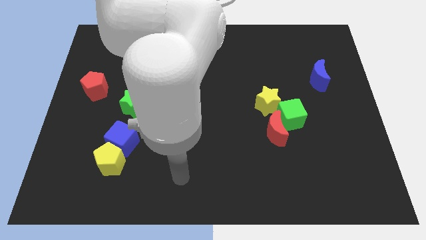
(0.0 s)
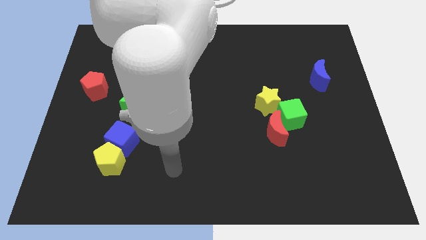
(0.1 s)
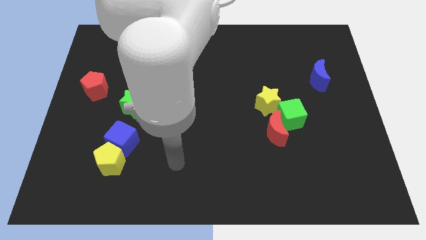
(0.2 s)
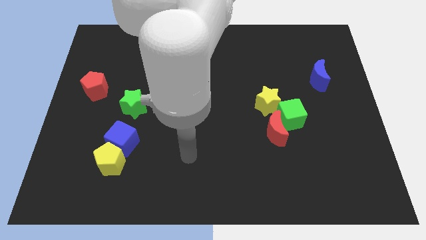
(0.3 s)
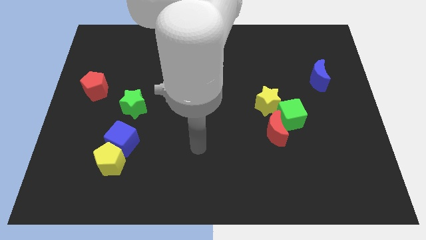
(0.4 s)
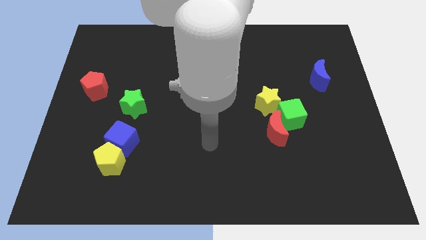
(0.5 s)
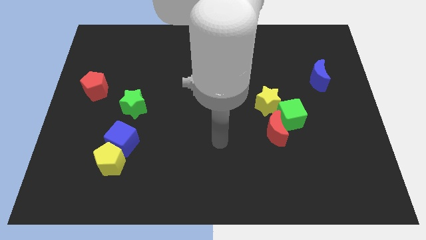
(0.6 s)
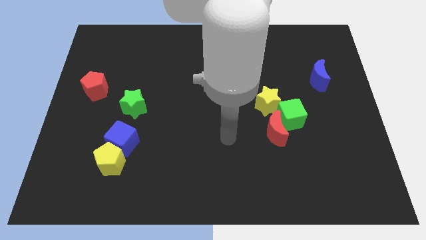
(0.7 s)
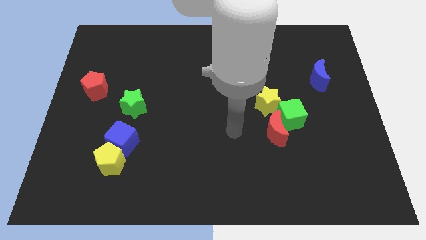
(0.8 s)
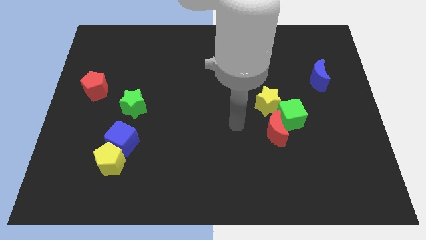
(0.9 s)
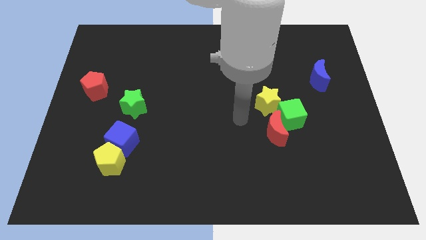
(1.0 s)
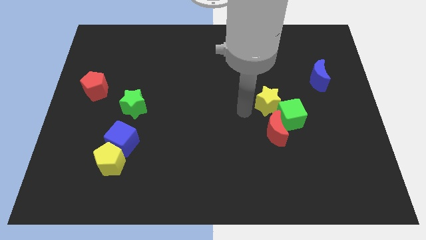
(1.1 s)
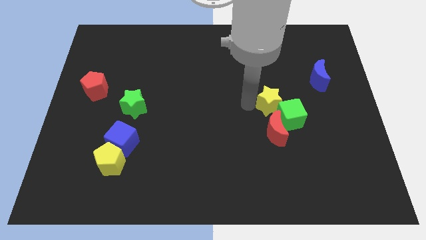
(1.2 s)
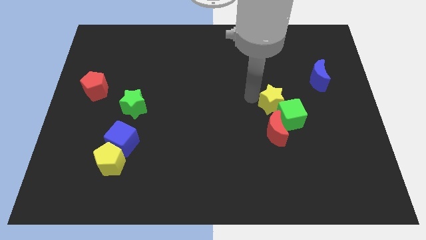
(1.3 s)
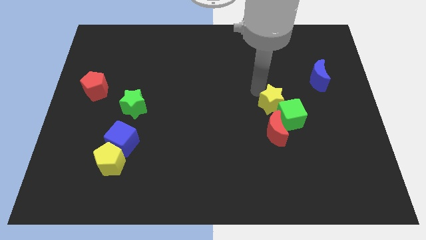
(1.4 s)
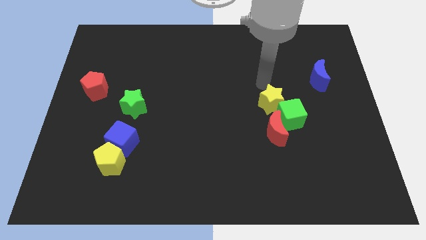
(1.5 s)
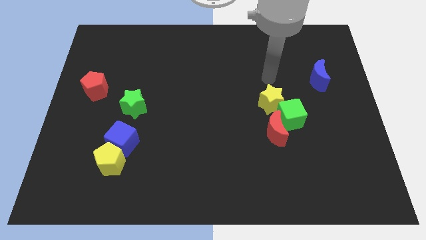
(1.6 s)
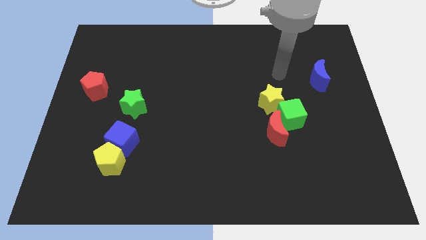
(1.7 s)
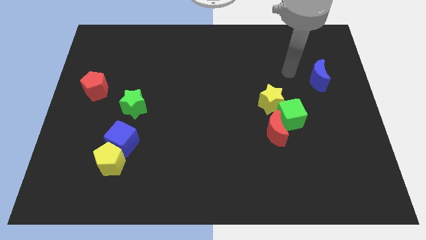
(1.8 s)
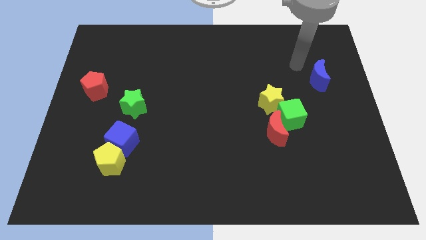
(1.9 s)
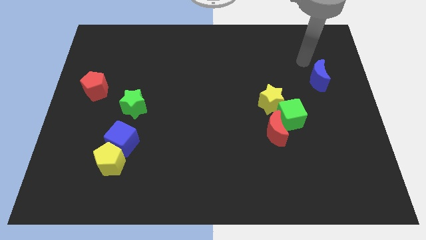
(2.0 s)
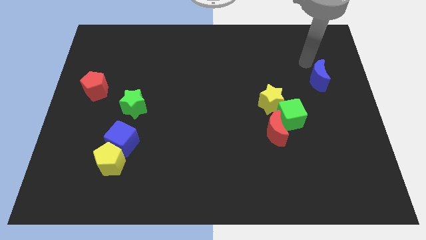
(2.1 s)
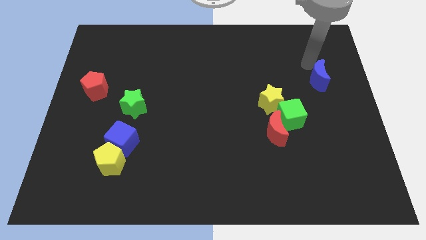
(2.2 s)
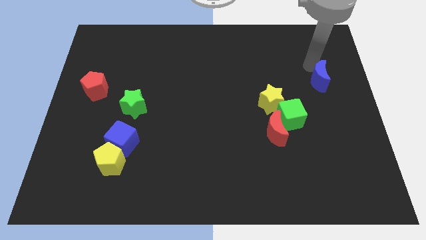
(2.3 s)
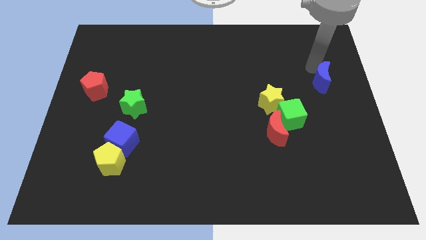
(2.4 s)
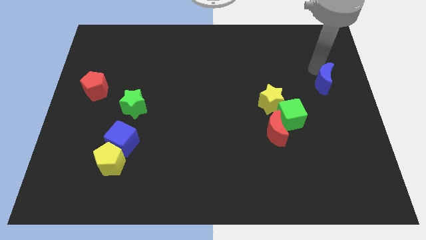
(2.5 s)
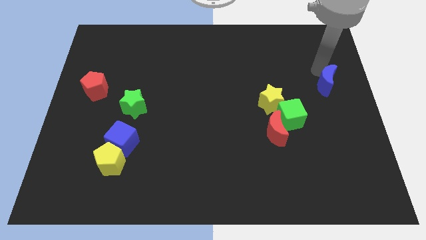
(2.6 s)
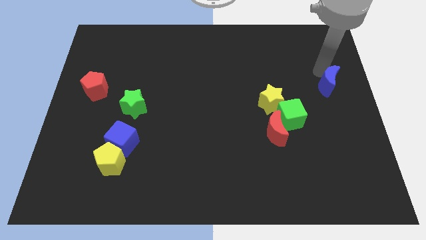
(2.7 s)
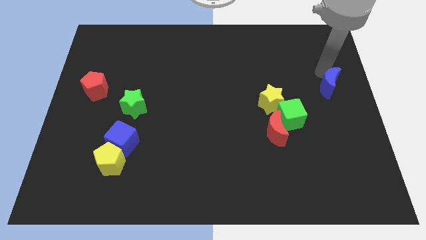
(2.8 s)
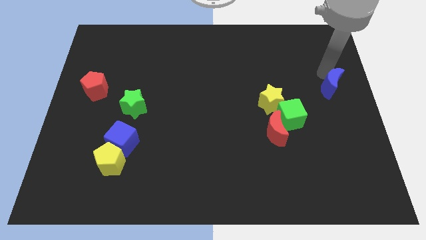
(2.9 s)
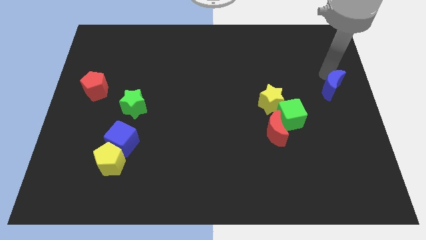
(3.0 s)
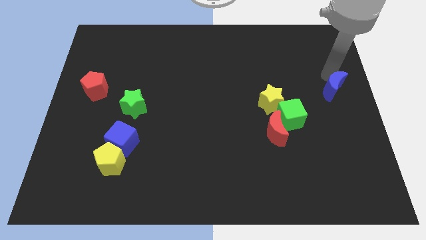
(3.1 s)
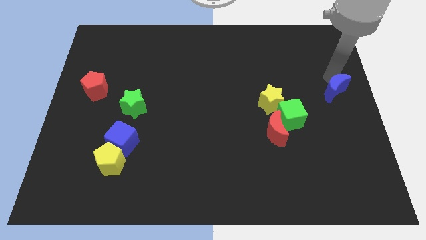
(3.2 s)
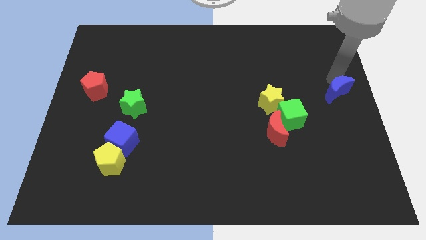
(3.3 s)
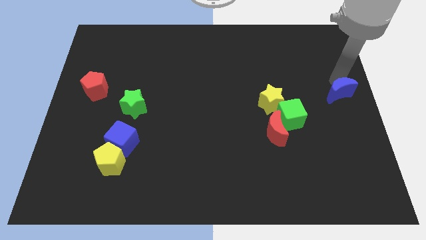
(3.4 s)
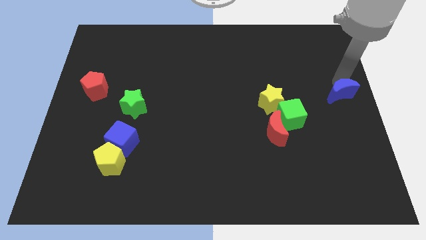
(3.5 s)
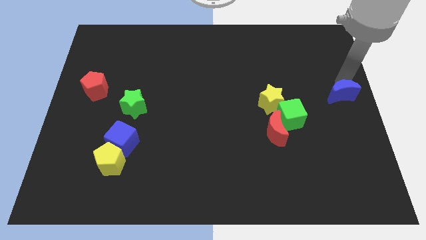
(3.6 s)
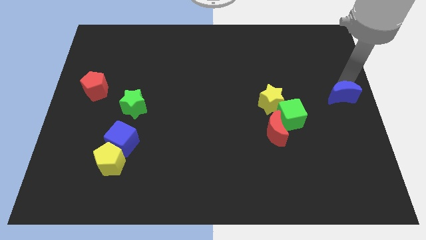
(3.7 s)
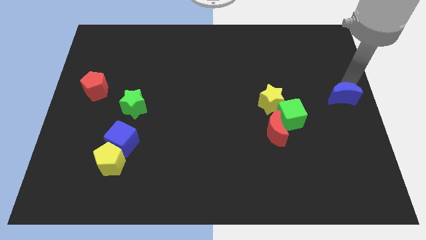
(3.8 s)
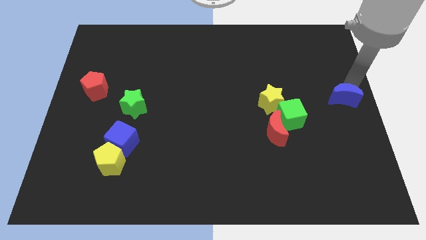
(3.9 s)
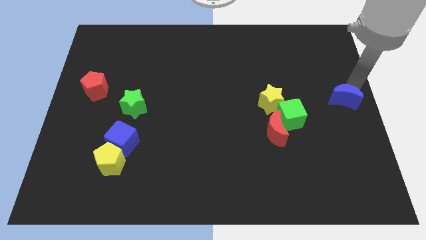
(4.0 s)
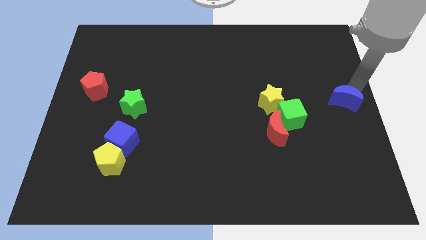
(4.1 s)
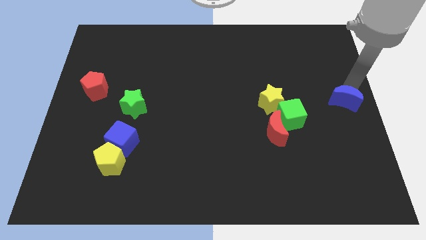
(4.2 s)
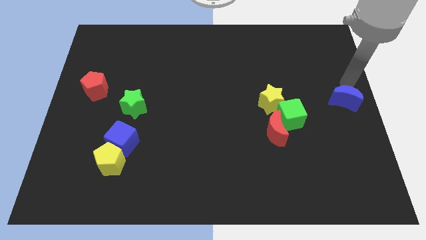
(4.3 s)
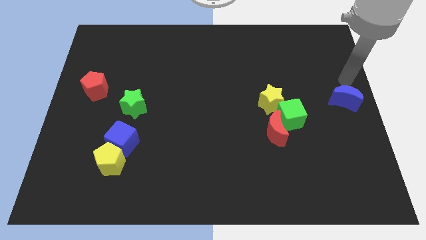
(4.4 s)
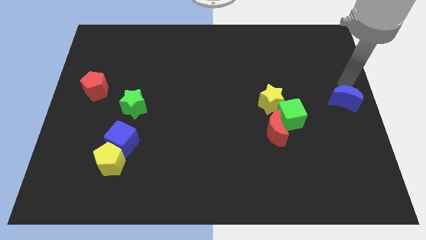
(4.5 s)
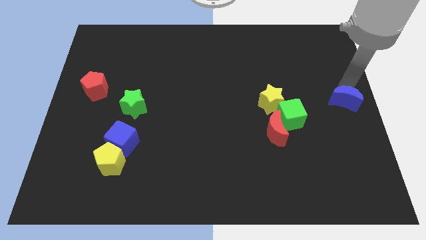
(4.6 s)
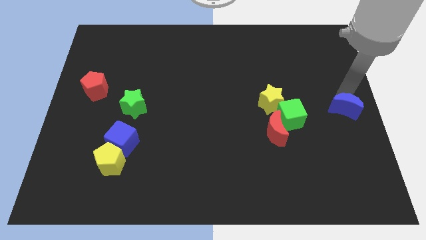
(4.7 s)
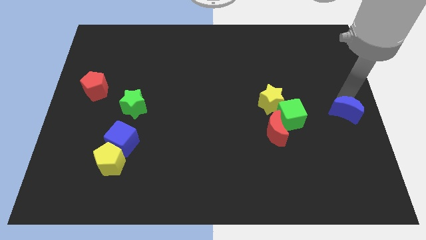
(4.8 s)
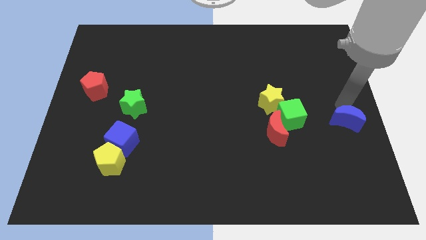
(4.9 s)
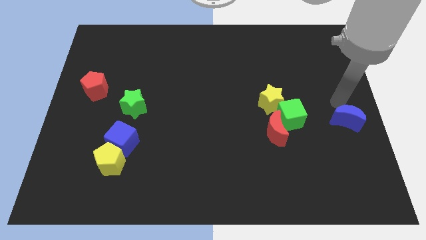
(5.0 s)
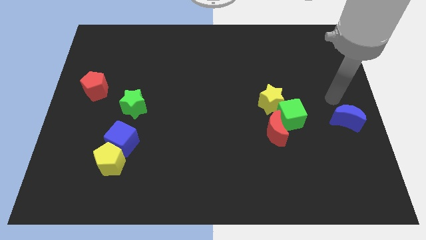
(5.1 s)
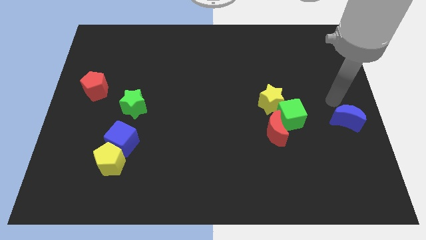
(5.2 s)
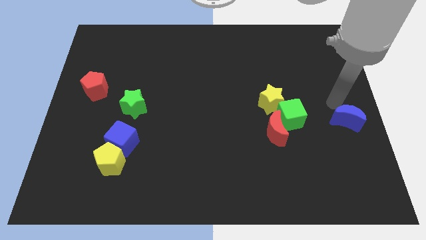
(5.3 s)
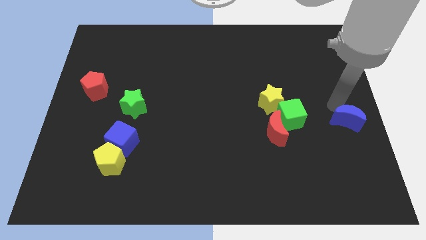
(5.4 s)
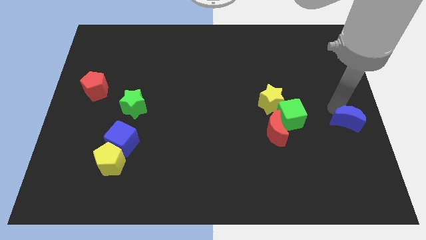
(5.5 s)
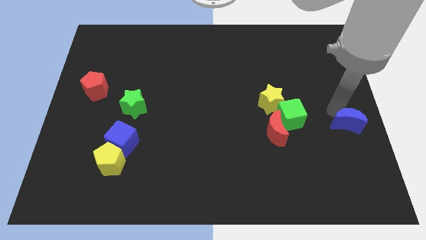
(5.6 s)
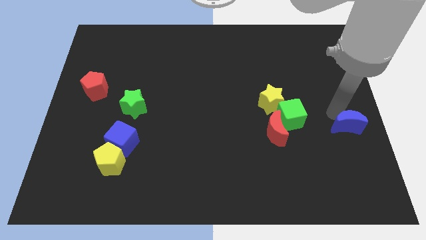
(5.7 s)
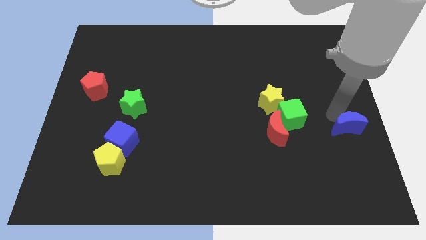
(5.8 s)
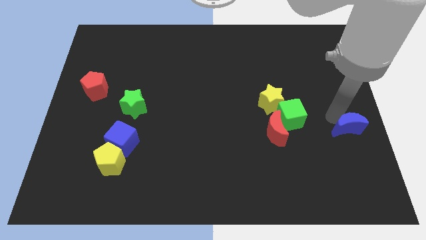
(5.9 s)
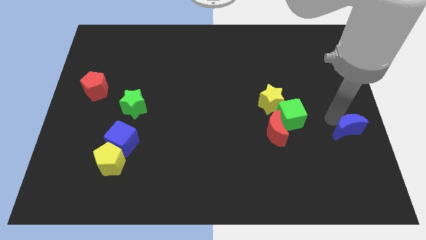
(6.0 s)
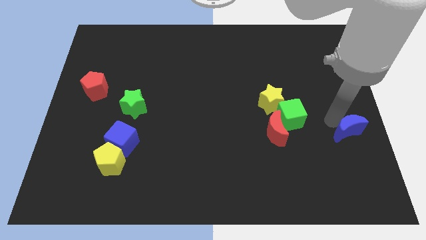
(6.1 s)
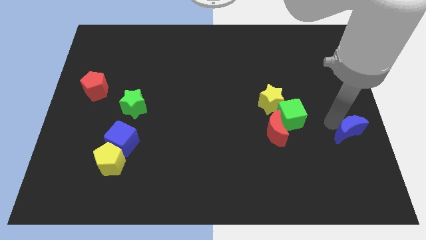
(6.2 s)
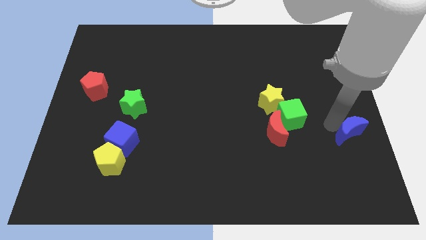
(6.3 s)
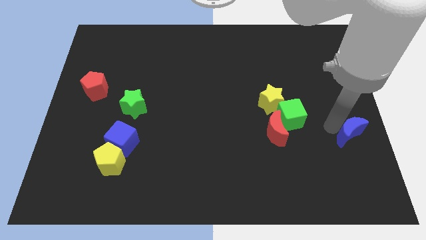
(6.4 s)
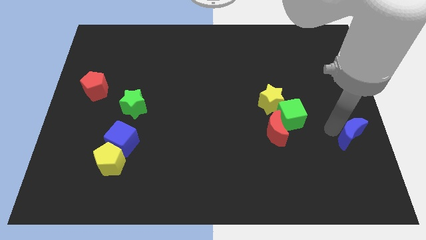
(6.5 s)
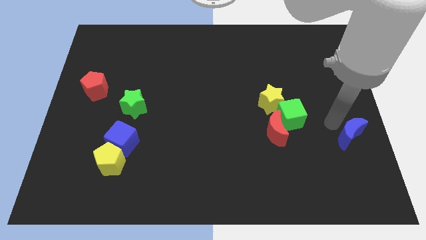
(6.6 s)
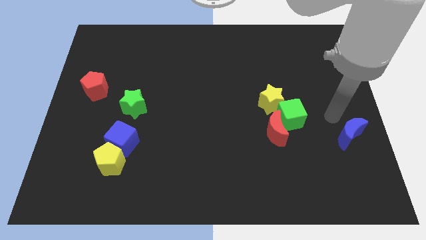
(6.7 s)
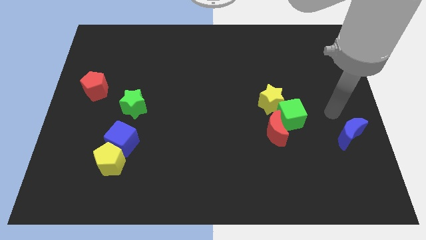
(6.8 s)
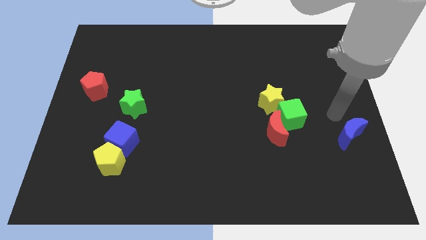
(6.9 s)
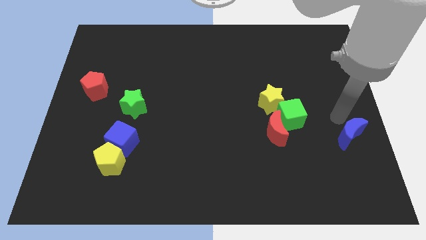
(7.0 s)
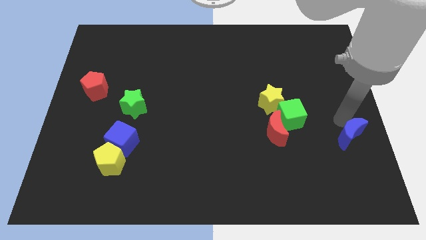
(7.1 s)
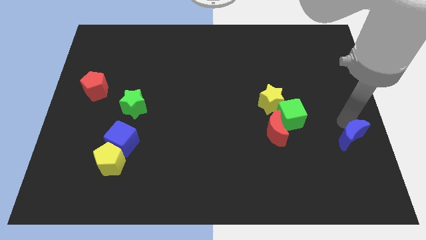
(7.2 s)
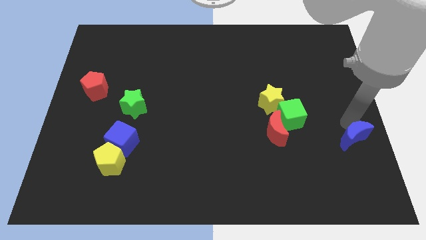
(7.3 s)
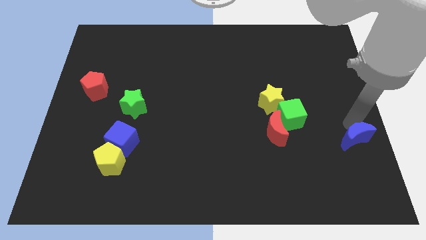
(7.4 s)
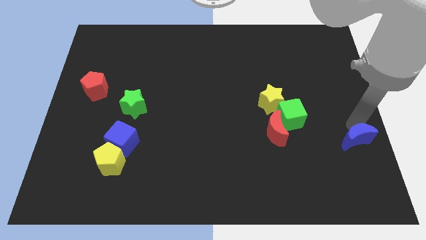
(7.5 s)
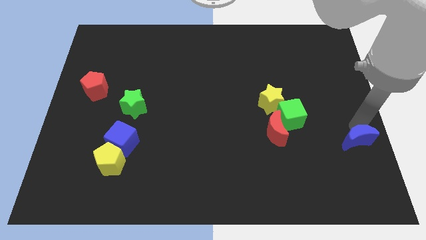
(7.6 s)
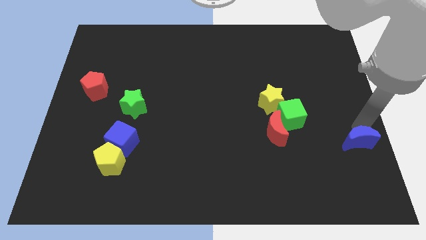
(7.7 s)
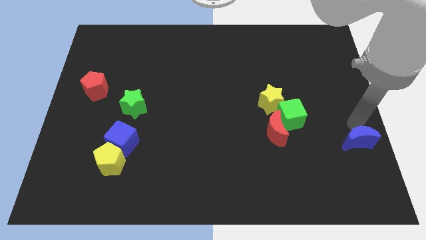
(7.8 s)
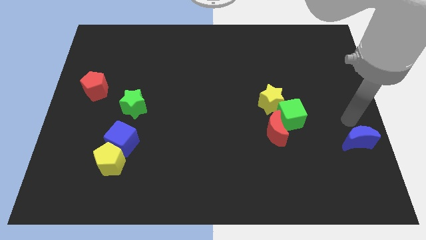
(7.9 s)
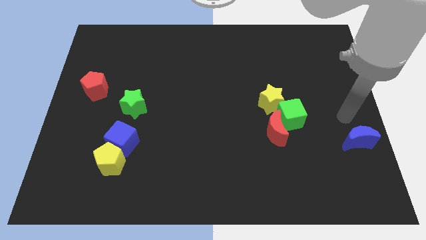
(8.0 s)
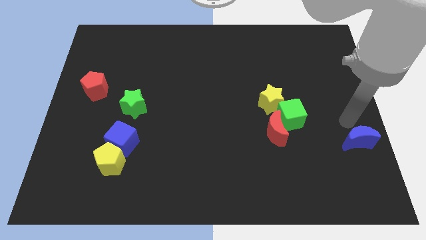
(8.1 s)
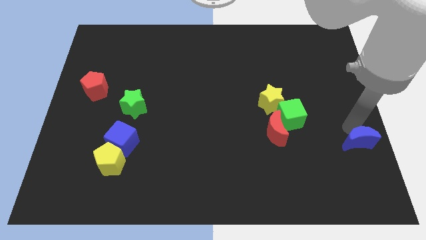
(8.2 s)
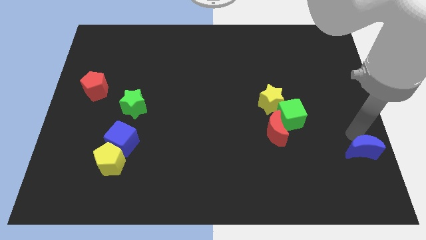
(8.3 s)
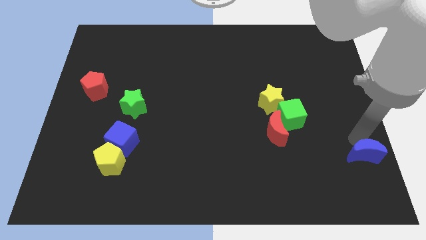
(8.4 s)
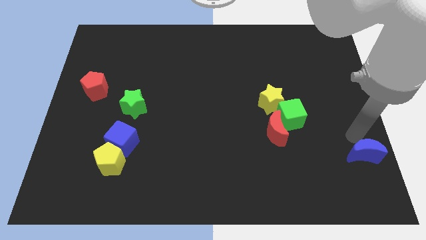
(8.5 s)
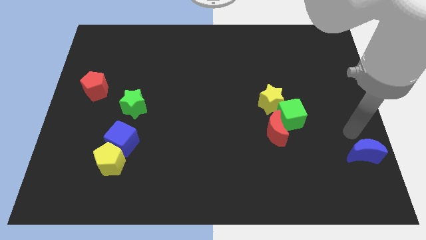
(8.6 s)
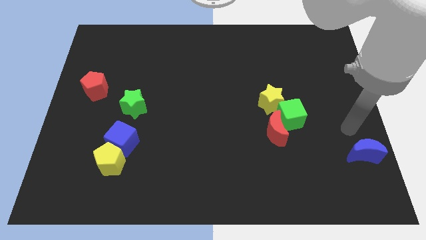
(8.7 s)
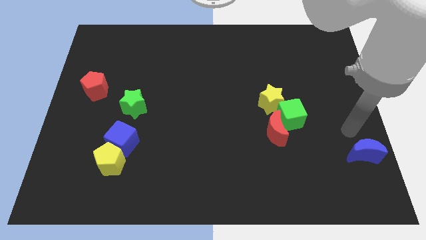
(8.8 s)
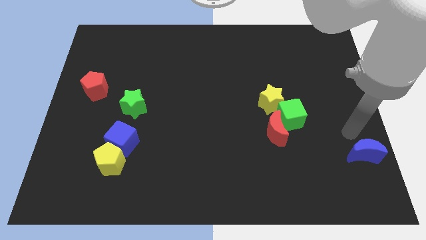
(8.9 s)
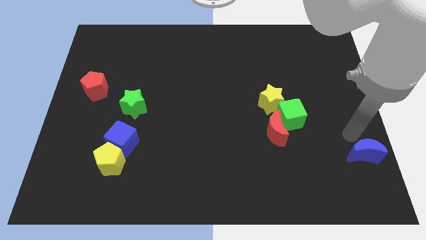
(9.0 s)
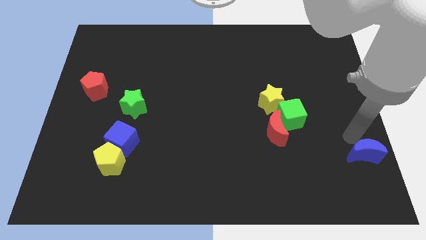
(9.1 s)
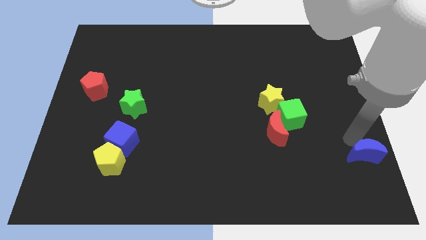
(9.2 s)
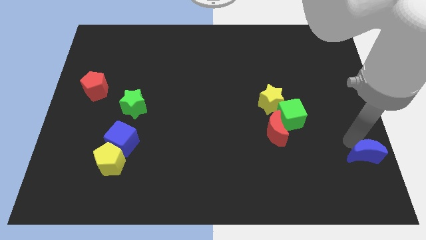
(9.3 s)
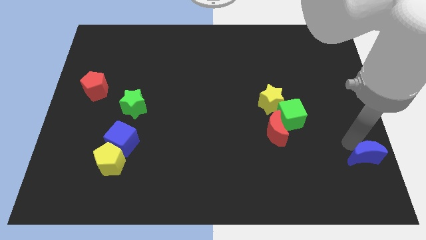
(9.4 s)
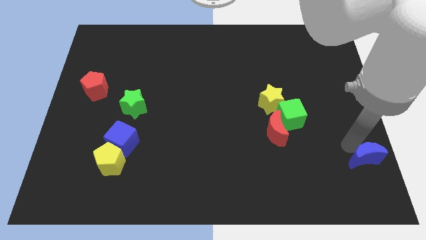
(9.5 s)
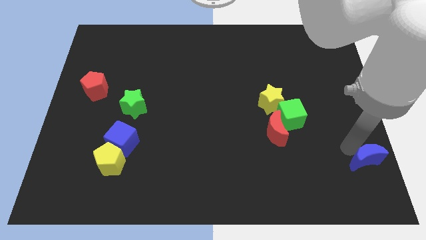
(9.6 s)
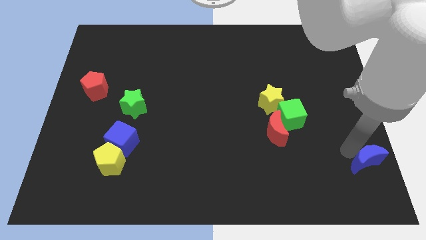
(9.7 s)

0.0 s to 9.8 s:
move the blue moon to the bottom right
